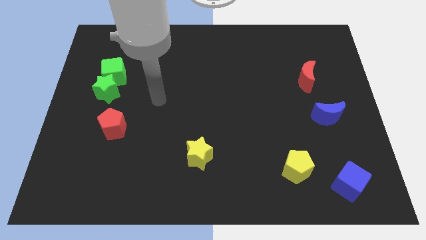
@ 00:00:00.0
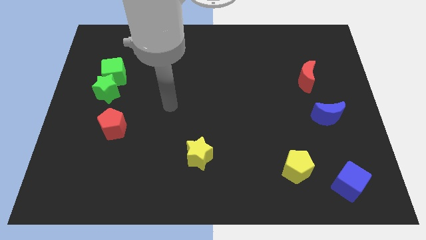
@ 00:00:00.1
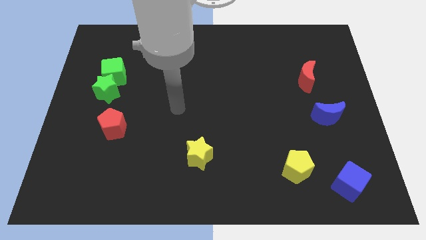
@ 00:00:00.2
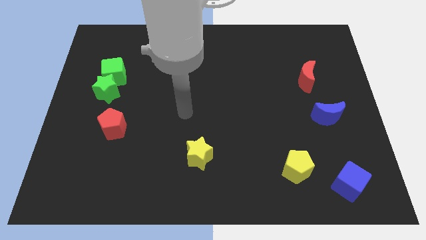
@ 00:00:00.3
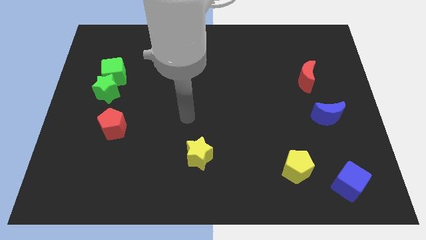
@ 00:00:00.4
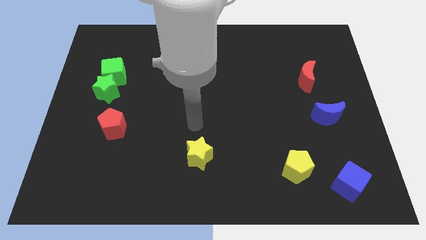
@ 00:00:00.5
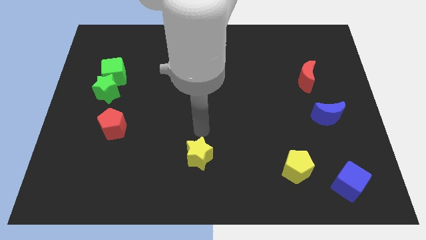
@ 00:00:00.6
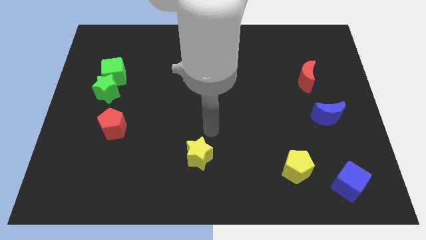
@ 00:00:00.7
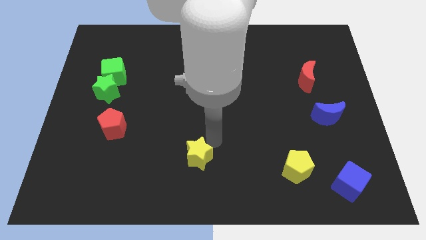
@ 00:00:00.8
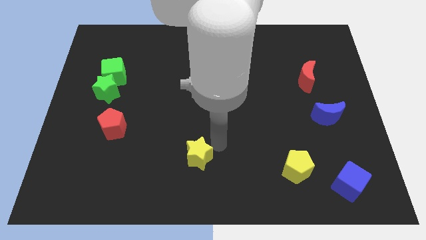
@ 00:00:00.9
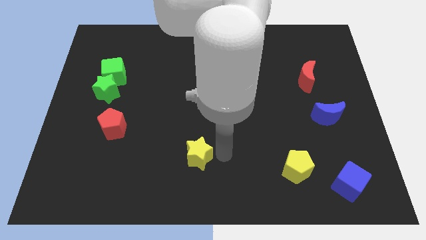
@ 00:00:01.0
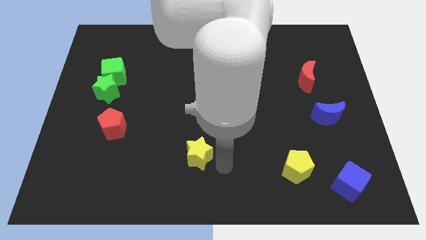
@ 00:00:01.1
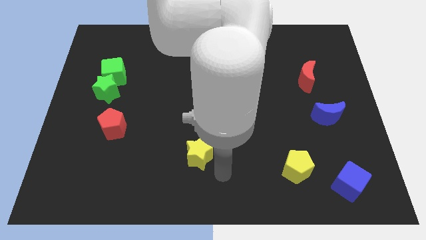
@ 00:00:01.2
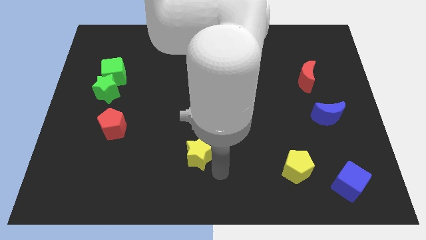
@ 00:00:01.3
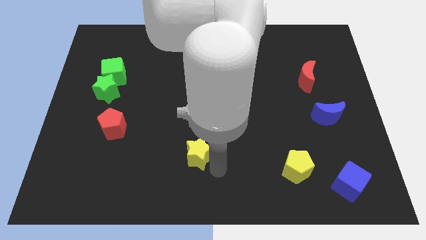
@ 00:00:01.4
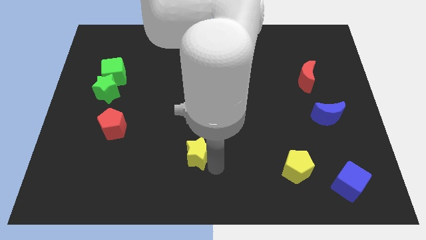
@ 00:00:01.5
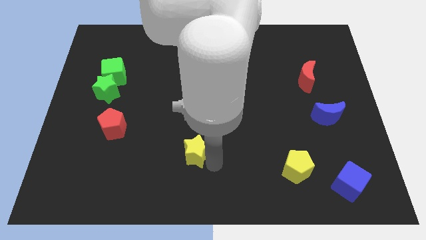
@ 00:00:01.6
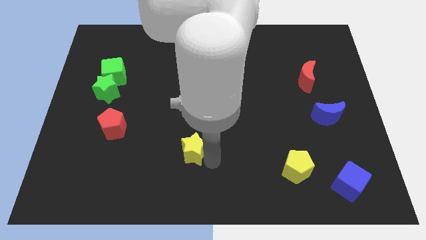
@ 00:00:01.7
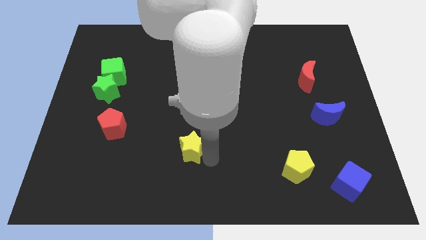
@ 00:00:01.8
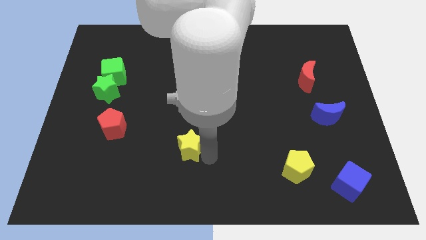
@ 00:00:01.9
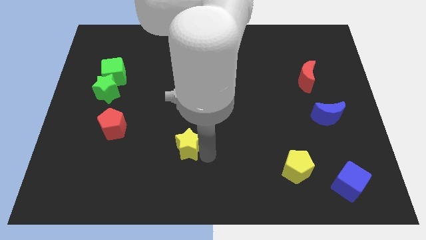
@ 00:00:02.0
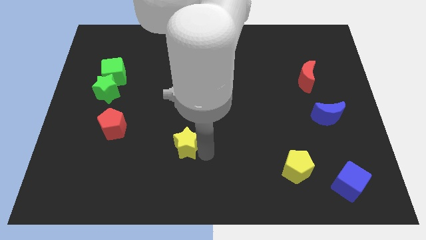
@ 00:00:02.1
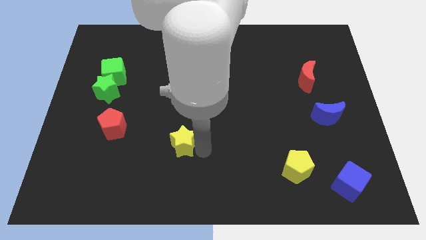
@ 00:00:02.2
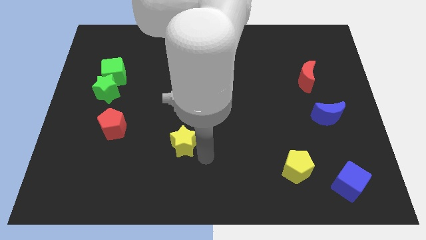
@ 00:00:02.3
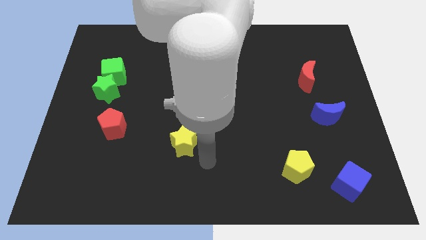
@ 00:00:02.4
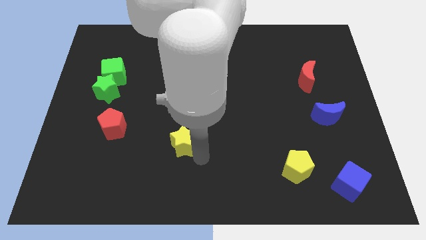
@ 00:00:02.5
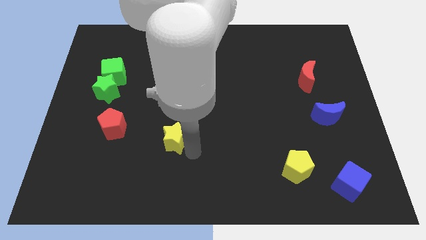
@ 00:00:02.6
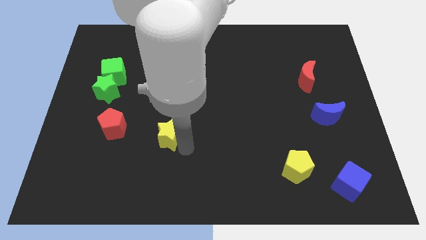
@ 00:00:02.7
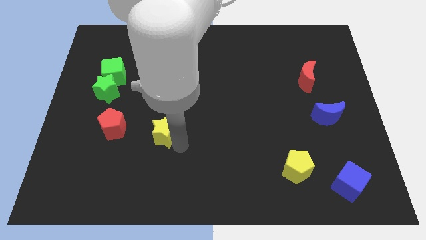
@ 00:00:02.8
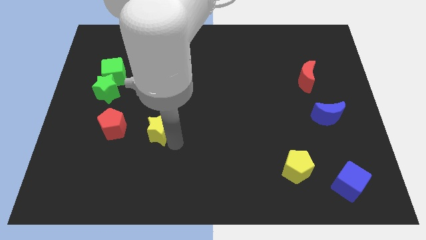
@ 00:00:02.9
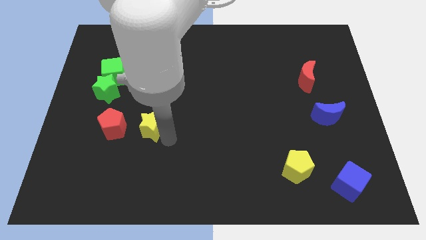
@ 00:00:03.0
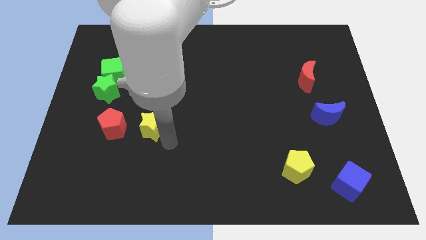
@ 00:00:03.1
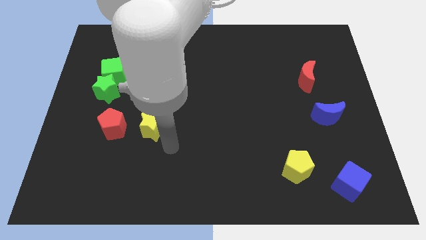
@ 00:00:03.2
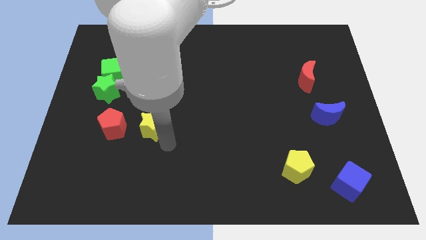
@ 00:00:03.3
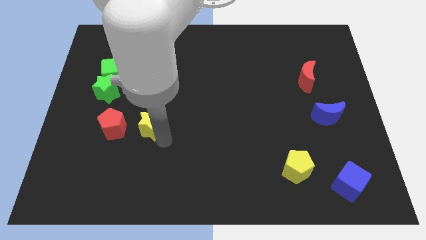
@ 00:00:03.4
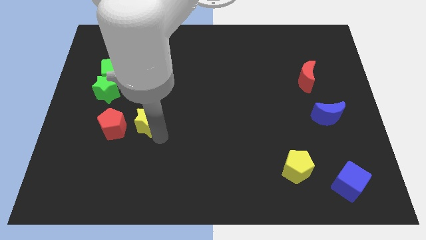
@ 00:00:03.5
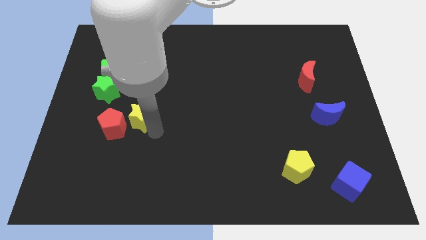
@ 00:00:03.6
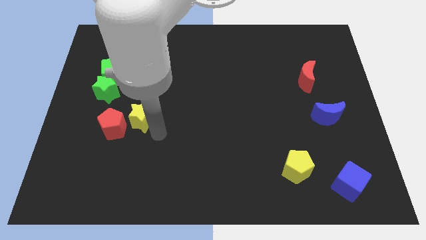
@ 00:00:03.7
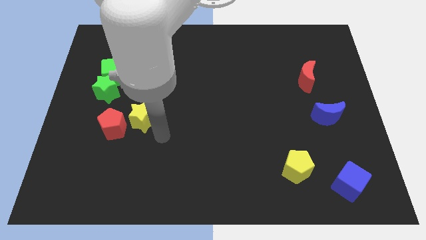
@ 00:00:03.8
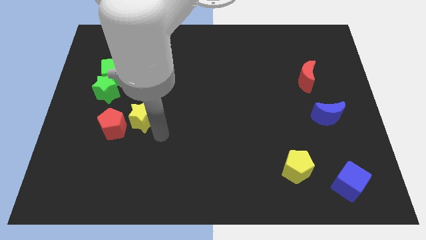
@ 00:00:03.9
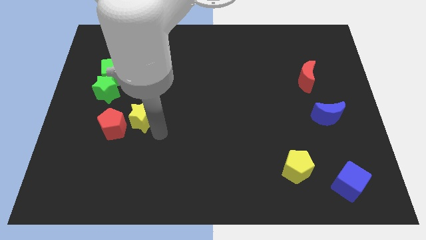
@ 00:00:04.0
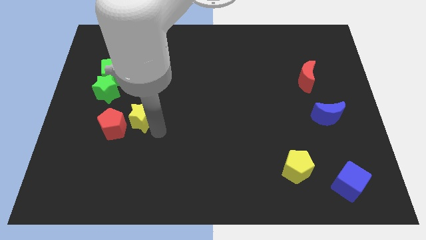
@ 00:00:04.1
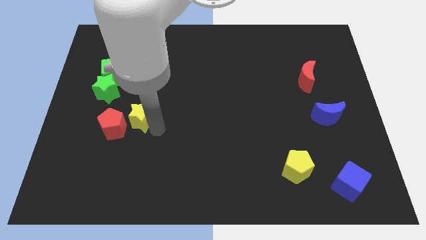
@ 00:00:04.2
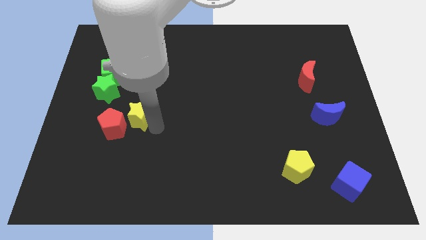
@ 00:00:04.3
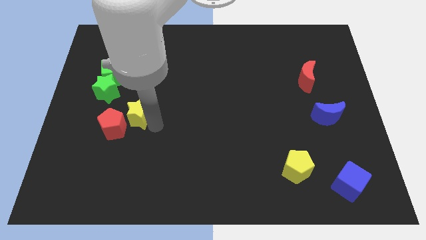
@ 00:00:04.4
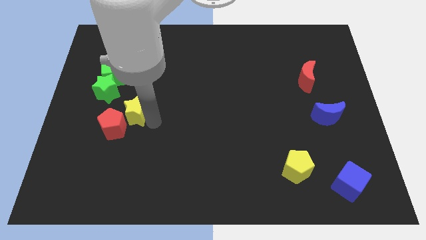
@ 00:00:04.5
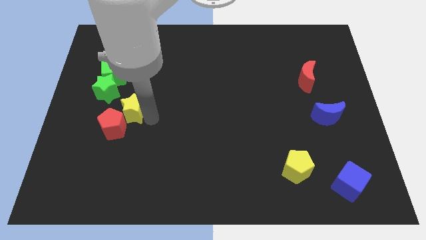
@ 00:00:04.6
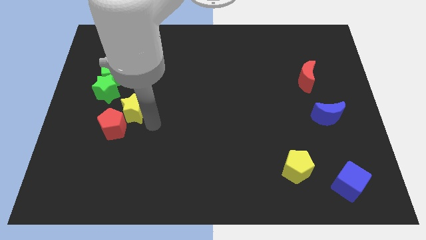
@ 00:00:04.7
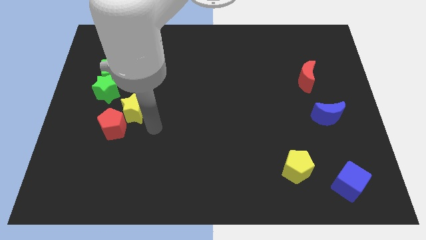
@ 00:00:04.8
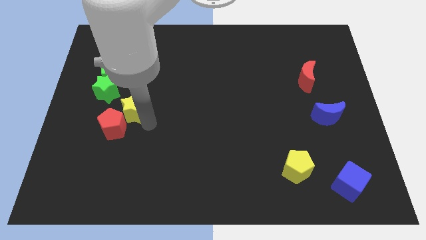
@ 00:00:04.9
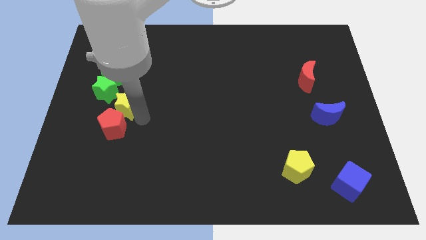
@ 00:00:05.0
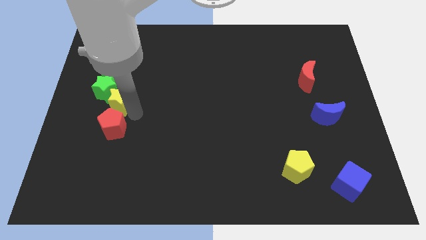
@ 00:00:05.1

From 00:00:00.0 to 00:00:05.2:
push the yellow star to the green star

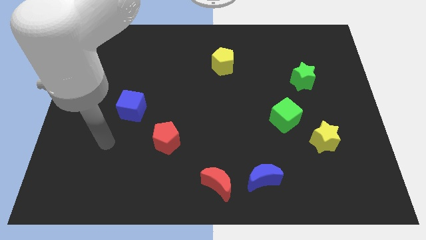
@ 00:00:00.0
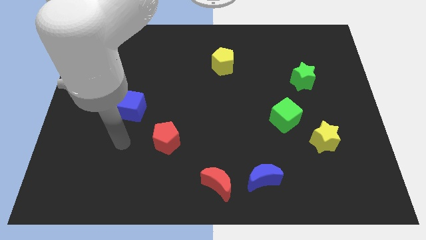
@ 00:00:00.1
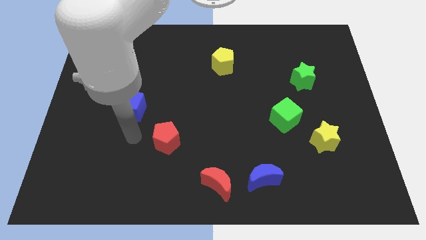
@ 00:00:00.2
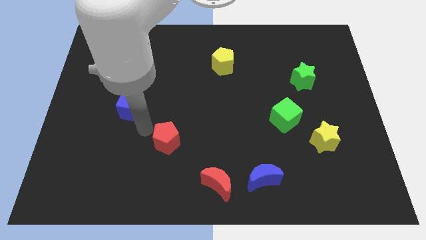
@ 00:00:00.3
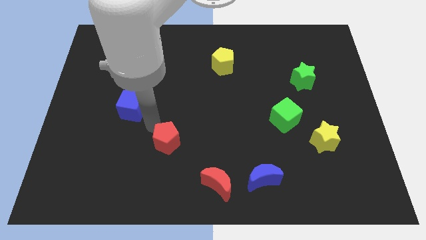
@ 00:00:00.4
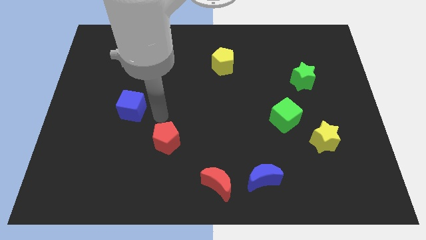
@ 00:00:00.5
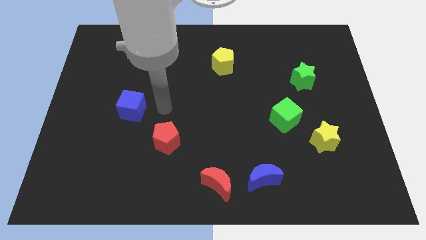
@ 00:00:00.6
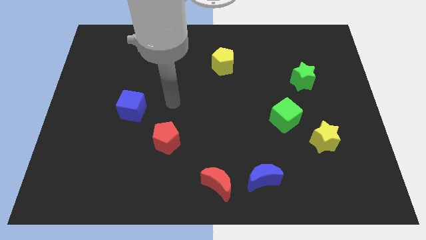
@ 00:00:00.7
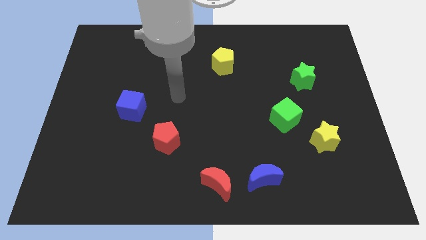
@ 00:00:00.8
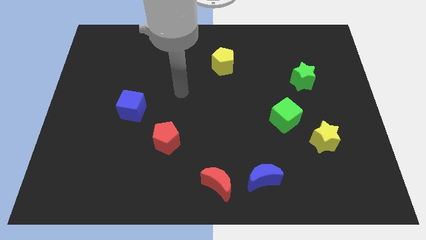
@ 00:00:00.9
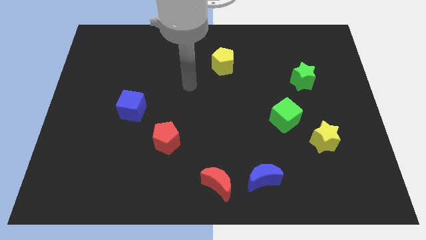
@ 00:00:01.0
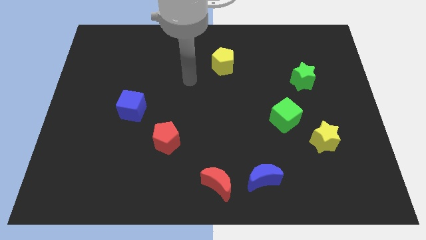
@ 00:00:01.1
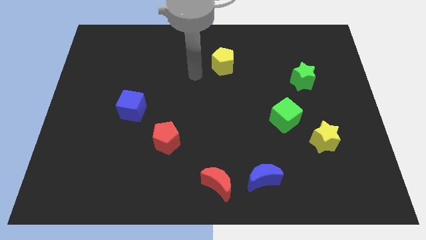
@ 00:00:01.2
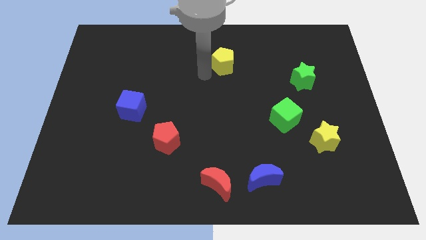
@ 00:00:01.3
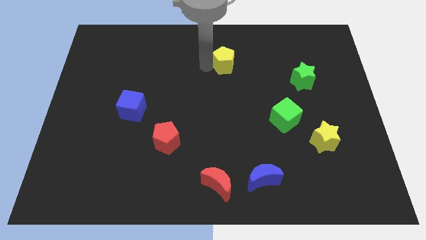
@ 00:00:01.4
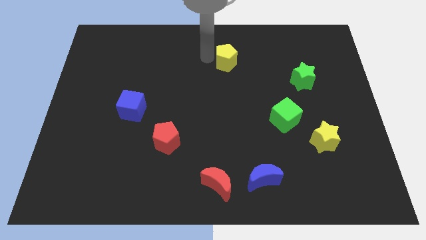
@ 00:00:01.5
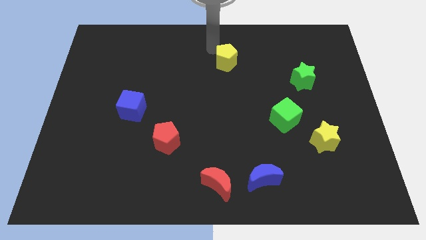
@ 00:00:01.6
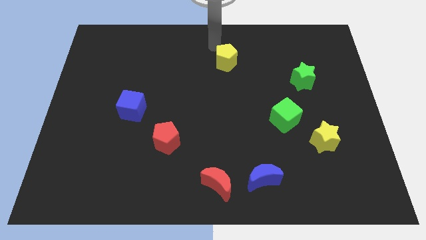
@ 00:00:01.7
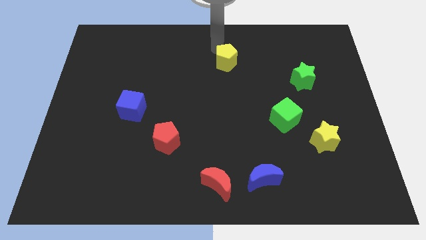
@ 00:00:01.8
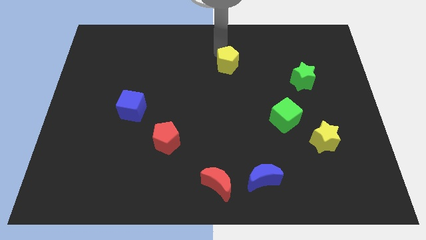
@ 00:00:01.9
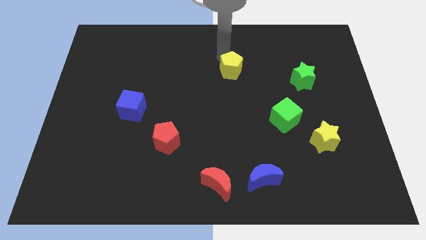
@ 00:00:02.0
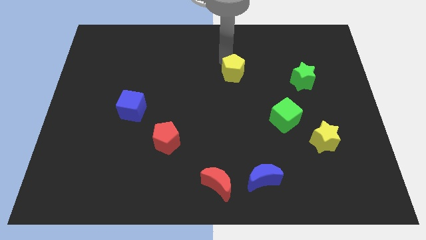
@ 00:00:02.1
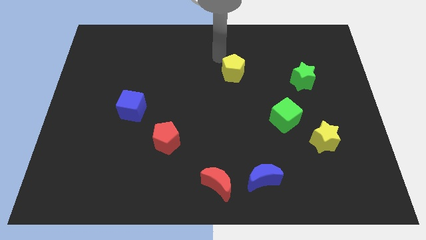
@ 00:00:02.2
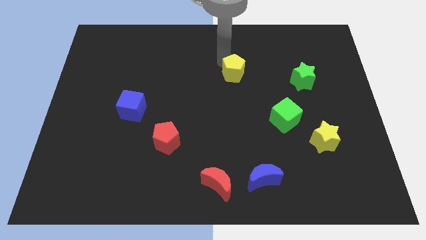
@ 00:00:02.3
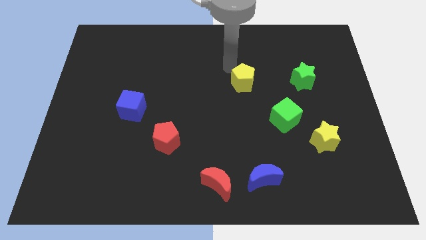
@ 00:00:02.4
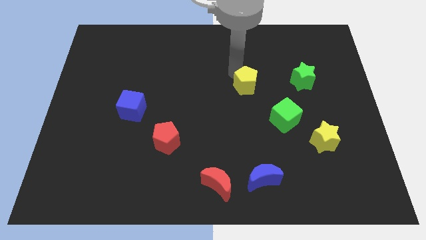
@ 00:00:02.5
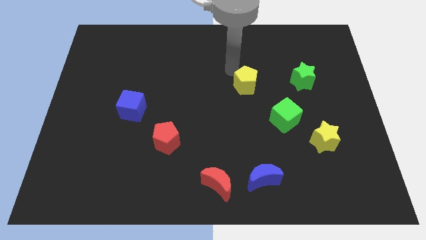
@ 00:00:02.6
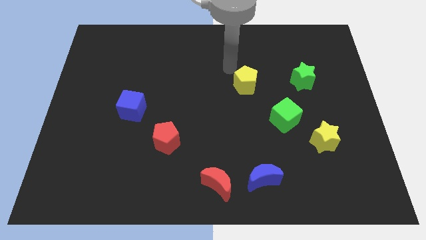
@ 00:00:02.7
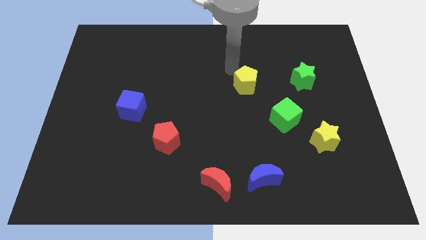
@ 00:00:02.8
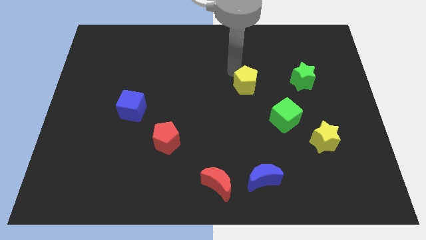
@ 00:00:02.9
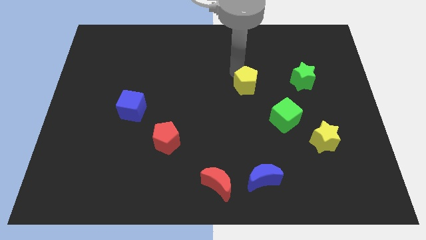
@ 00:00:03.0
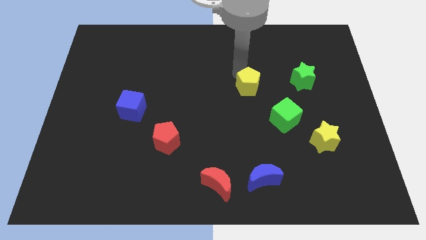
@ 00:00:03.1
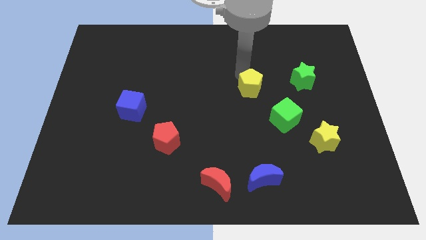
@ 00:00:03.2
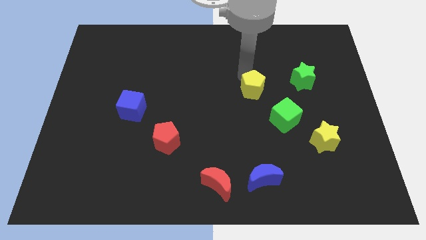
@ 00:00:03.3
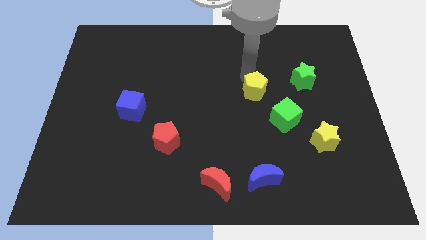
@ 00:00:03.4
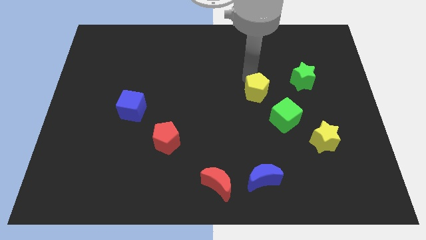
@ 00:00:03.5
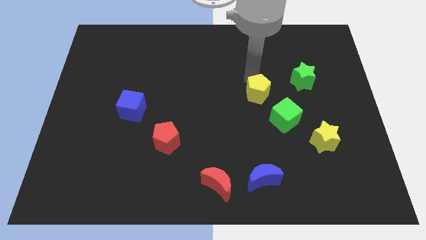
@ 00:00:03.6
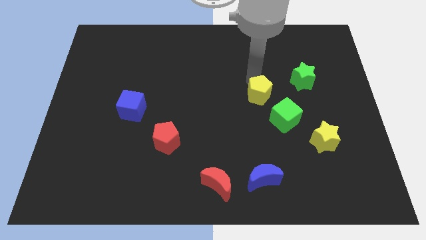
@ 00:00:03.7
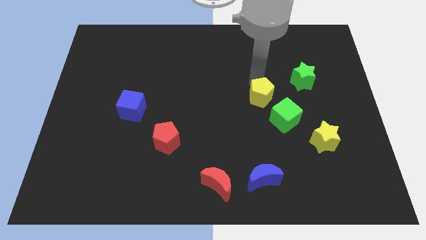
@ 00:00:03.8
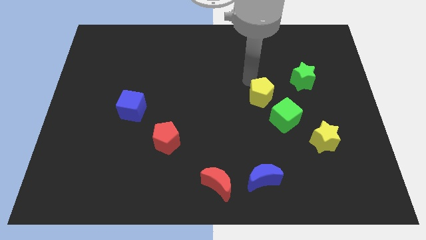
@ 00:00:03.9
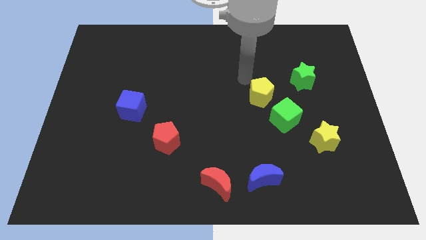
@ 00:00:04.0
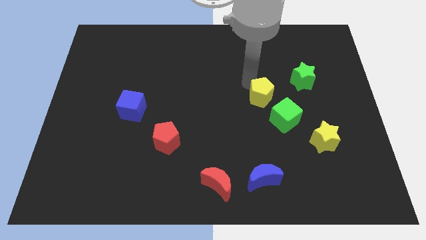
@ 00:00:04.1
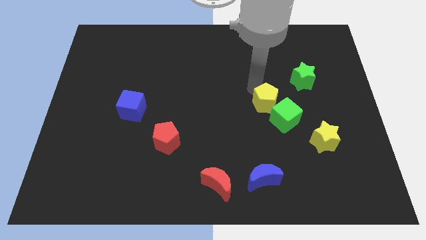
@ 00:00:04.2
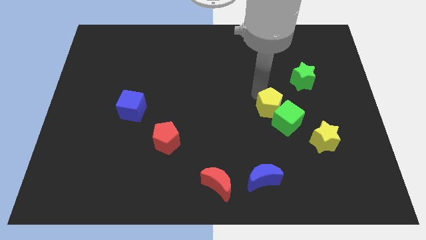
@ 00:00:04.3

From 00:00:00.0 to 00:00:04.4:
slide the yellow pentagon towards the green cube
